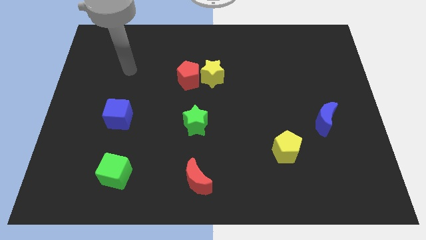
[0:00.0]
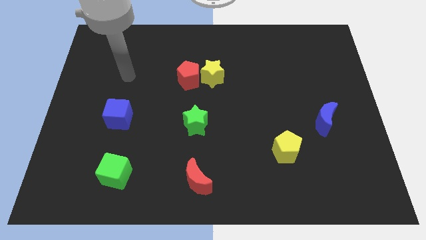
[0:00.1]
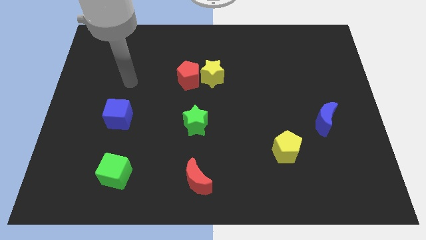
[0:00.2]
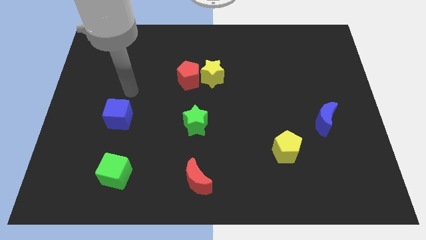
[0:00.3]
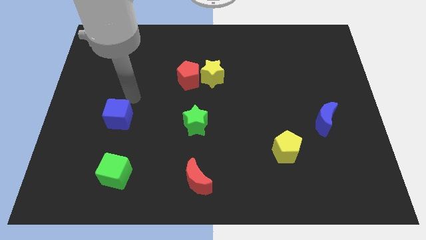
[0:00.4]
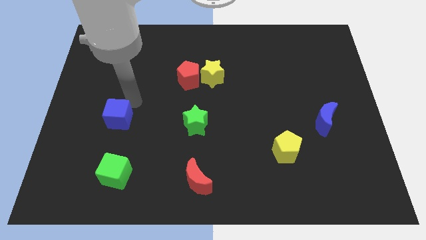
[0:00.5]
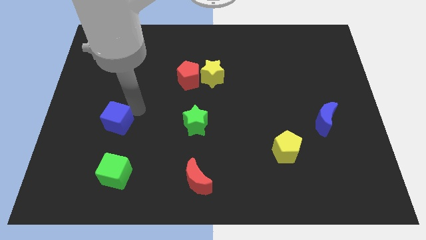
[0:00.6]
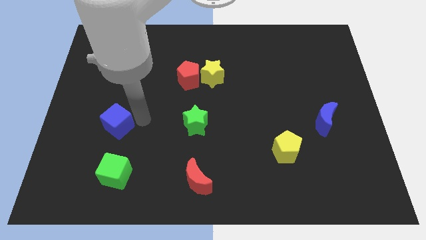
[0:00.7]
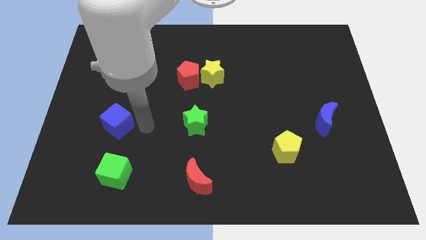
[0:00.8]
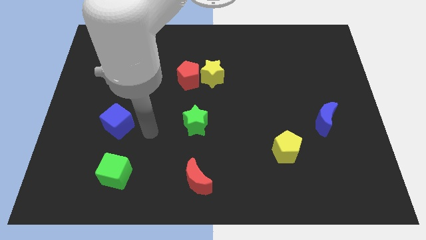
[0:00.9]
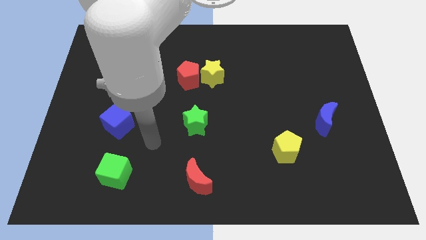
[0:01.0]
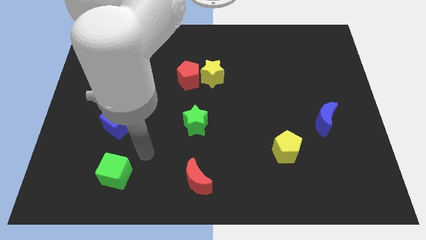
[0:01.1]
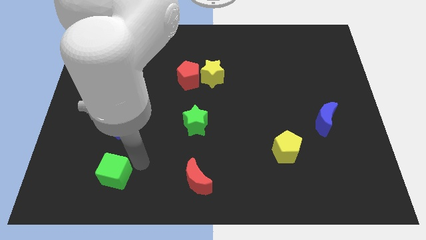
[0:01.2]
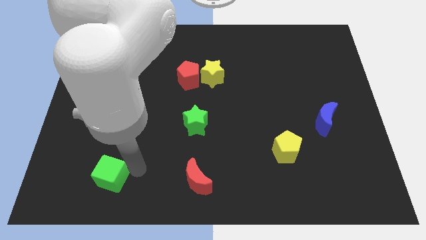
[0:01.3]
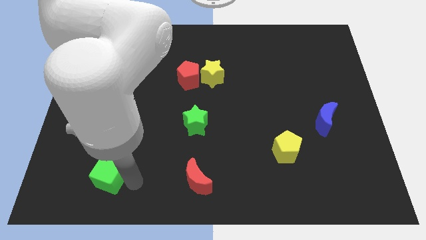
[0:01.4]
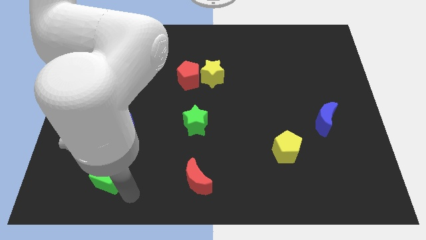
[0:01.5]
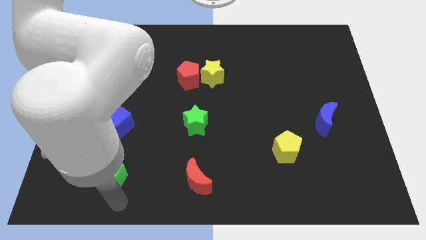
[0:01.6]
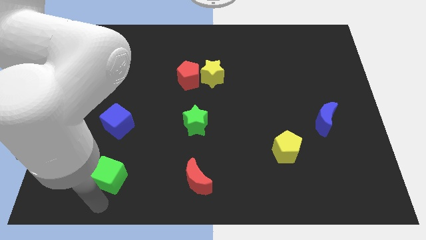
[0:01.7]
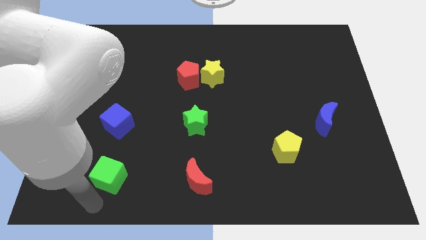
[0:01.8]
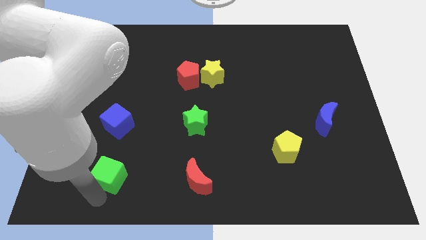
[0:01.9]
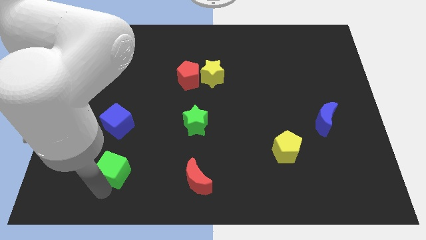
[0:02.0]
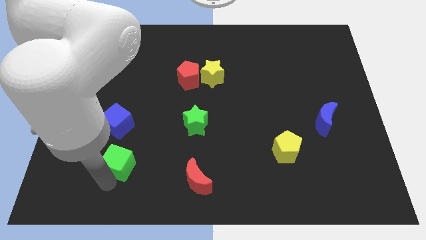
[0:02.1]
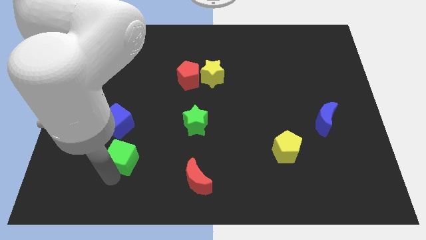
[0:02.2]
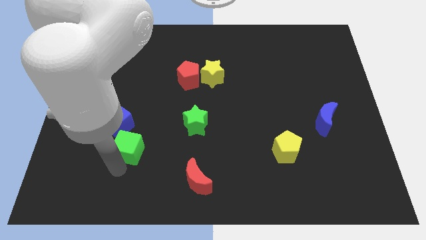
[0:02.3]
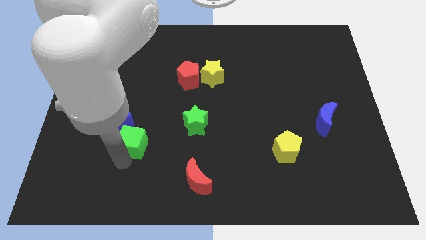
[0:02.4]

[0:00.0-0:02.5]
push the green cube upwards slightly

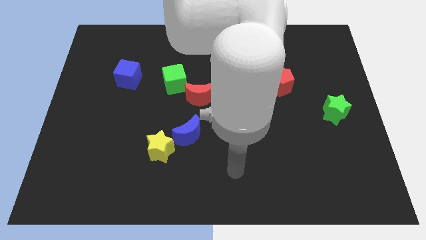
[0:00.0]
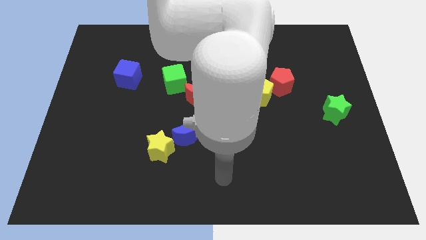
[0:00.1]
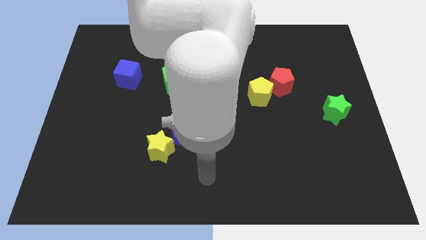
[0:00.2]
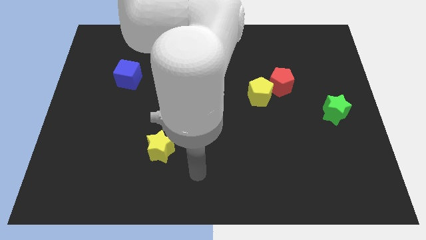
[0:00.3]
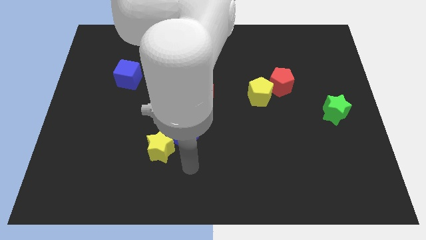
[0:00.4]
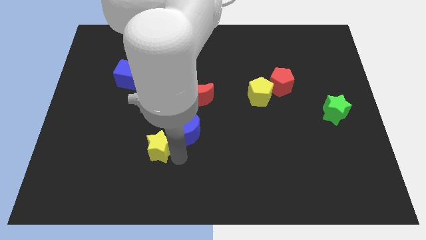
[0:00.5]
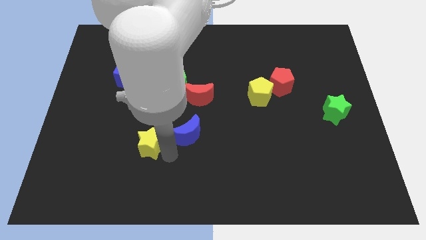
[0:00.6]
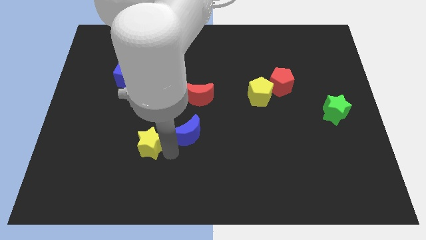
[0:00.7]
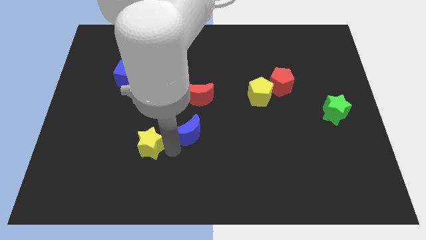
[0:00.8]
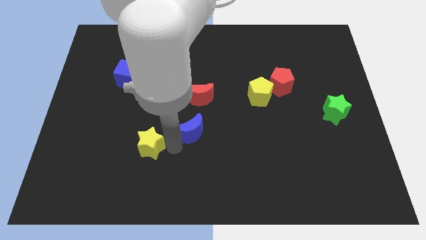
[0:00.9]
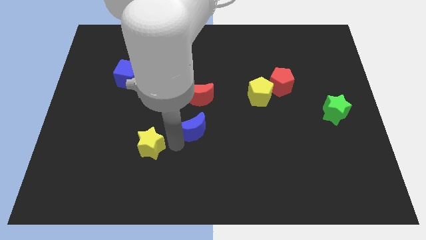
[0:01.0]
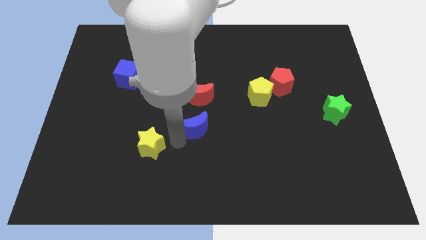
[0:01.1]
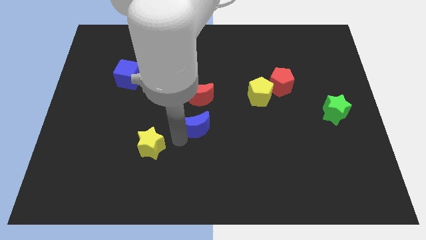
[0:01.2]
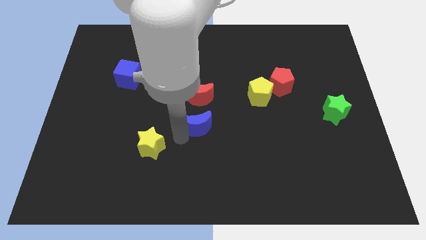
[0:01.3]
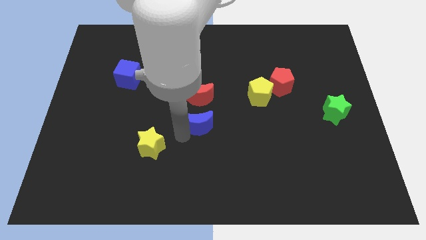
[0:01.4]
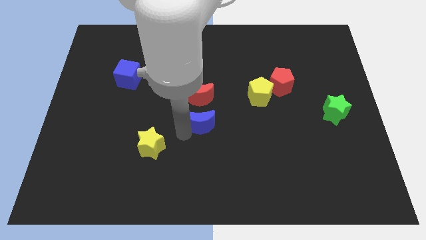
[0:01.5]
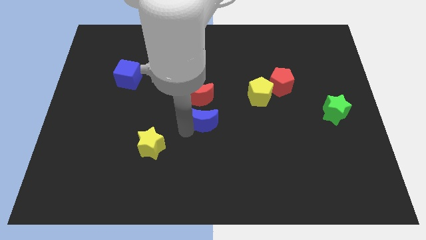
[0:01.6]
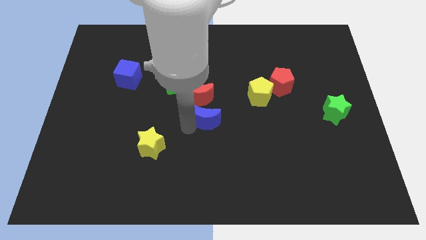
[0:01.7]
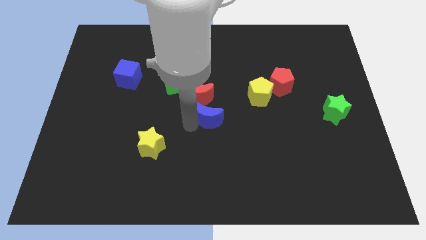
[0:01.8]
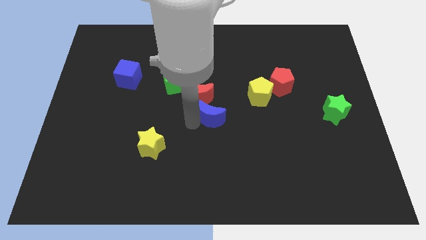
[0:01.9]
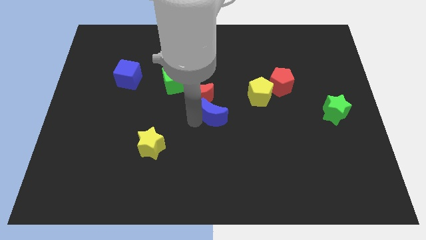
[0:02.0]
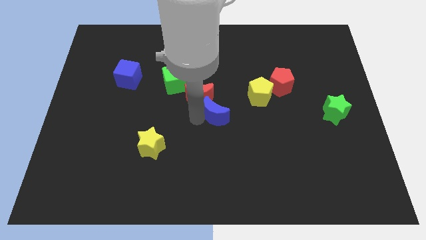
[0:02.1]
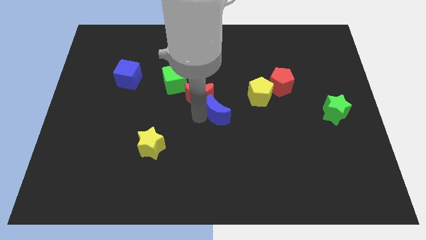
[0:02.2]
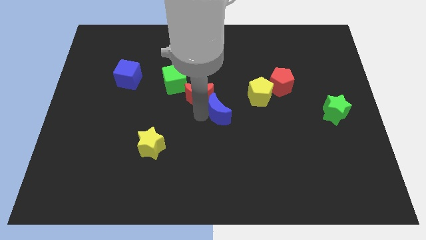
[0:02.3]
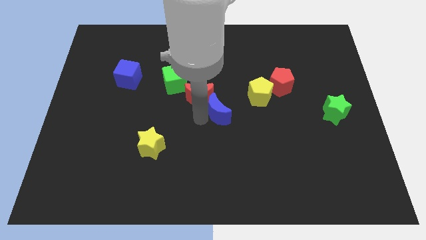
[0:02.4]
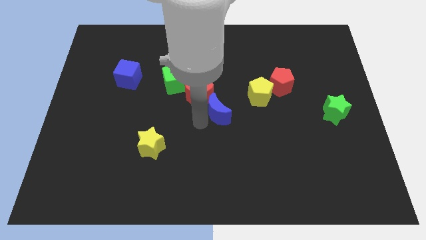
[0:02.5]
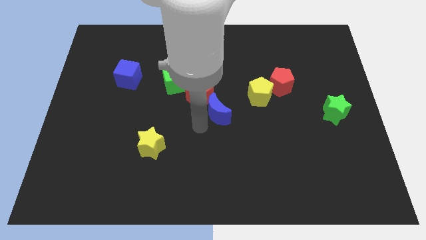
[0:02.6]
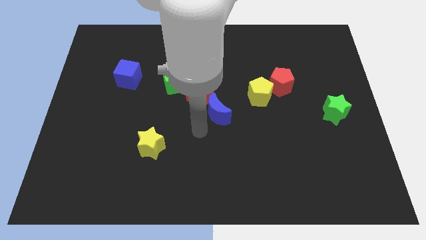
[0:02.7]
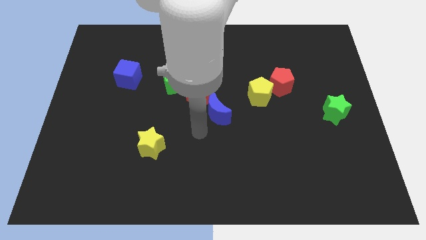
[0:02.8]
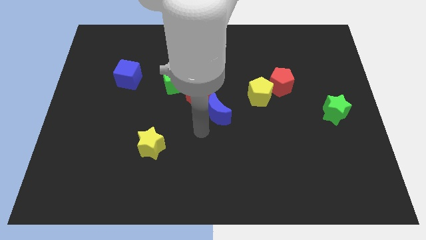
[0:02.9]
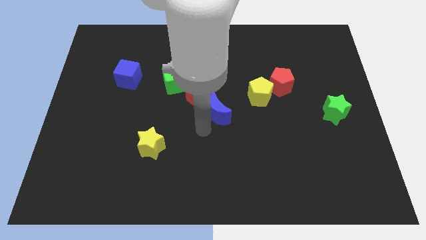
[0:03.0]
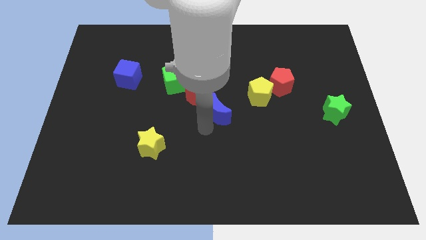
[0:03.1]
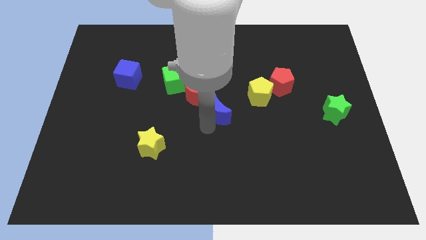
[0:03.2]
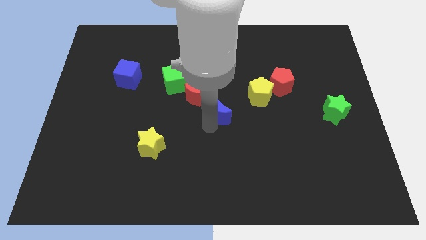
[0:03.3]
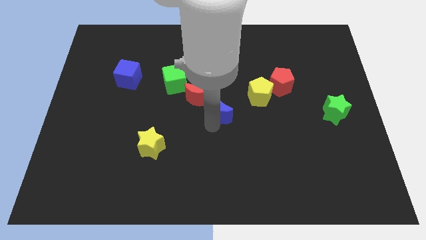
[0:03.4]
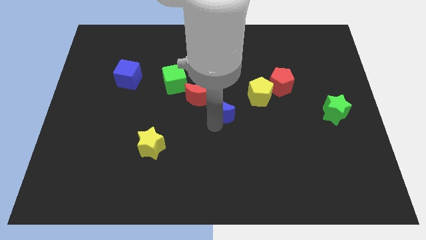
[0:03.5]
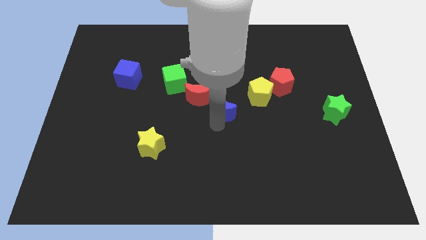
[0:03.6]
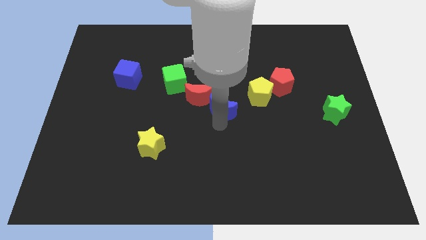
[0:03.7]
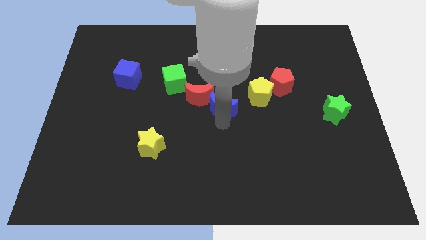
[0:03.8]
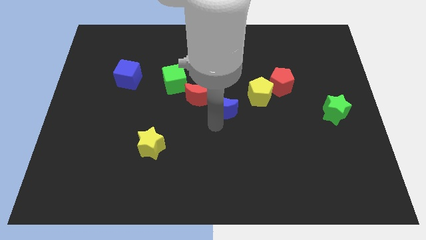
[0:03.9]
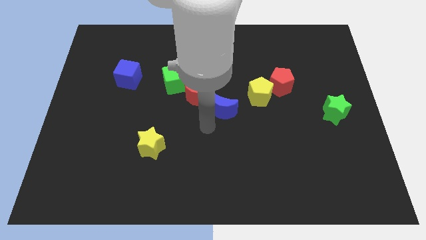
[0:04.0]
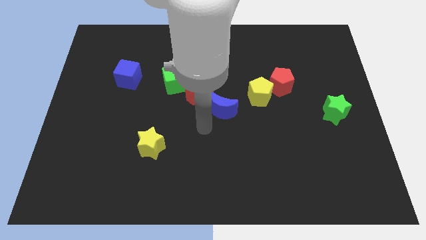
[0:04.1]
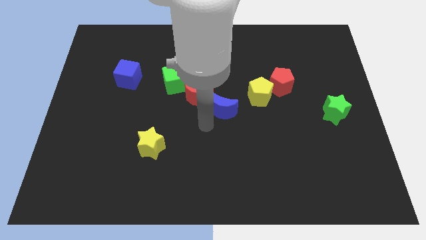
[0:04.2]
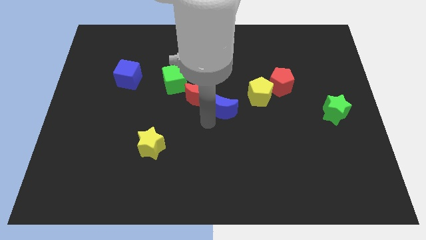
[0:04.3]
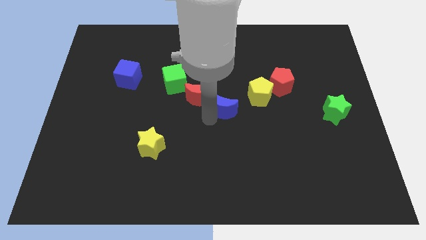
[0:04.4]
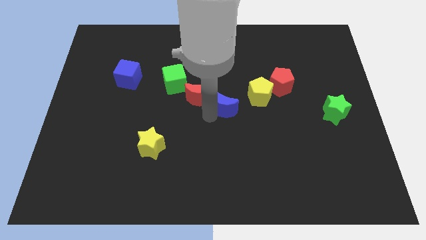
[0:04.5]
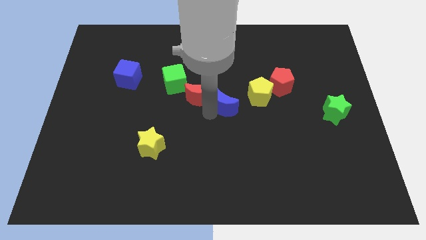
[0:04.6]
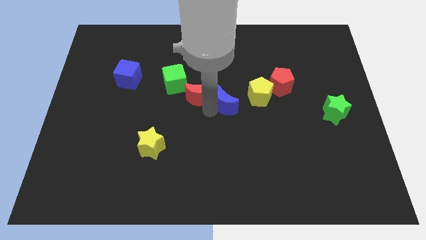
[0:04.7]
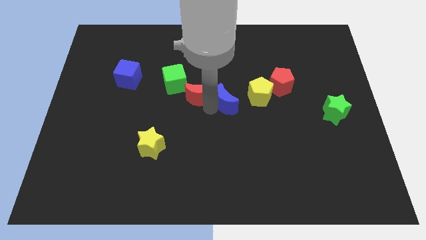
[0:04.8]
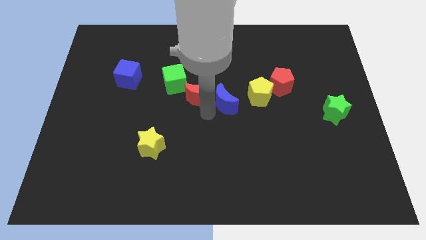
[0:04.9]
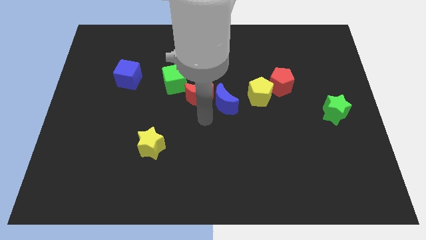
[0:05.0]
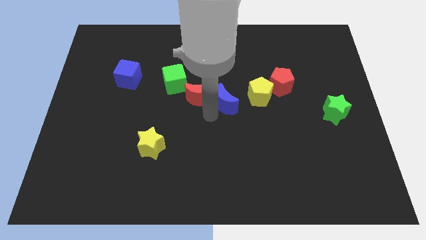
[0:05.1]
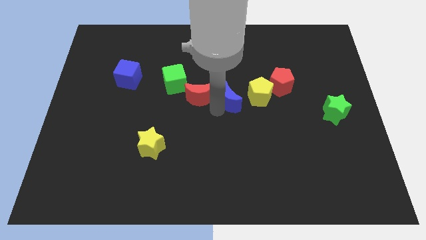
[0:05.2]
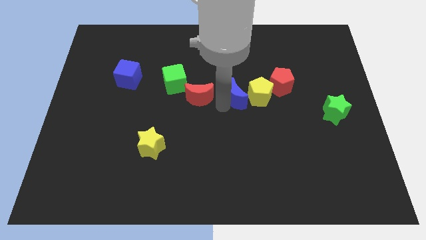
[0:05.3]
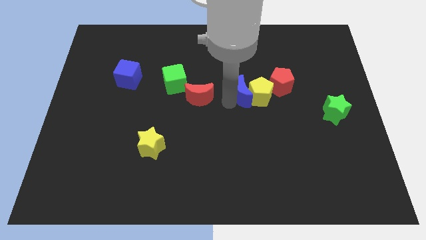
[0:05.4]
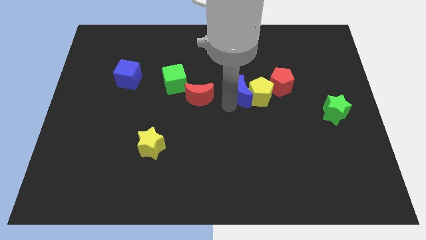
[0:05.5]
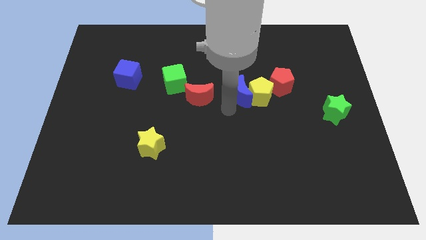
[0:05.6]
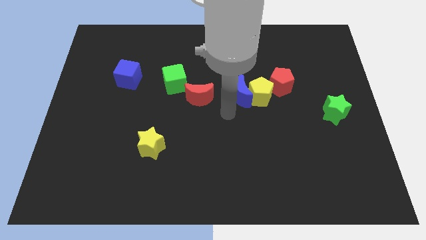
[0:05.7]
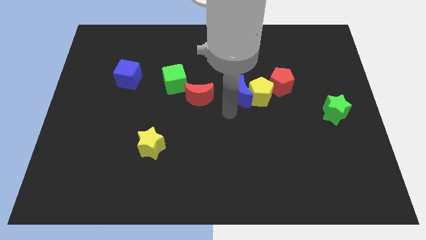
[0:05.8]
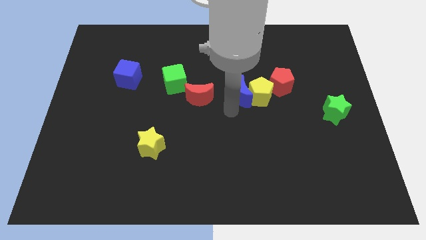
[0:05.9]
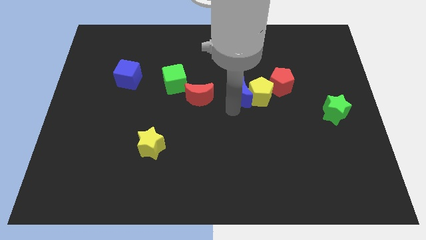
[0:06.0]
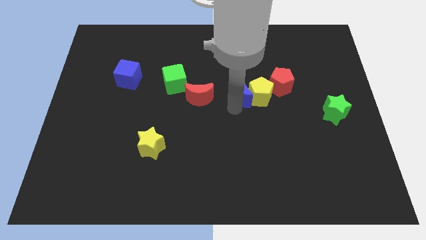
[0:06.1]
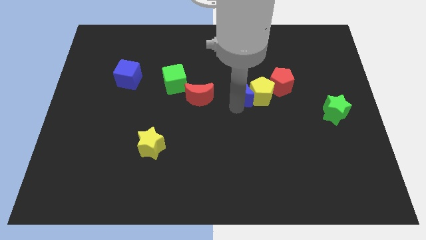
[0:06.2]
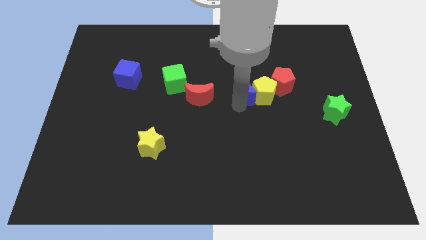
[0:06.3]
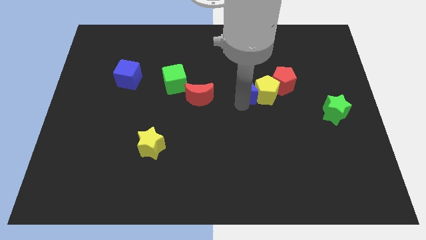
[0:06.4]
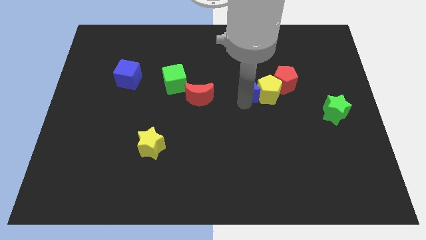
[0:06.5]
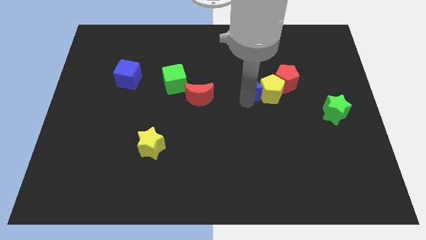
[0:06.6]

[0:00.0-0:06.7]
push the blue moon up and then to the right
